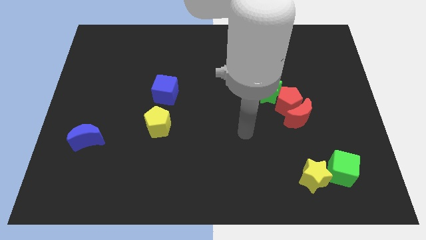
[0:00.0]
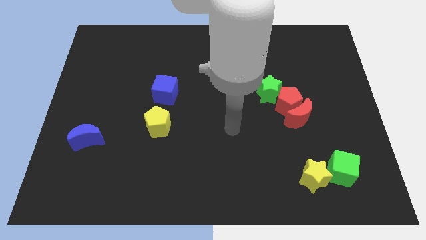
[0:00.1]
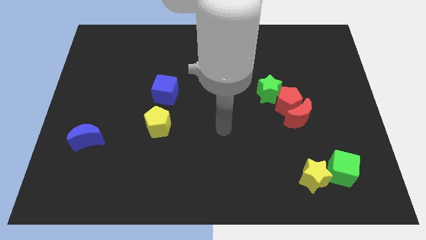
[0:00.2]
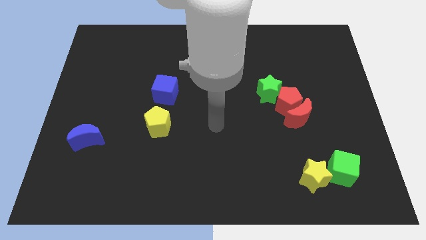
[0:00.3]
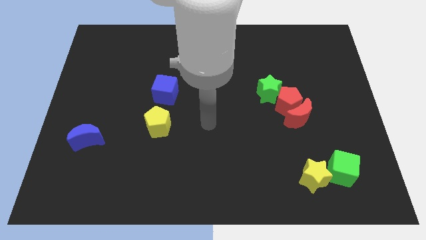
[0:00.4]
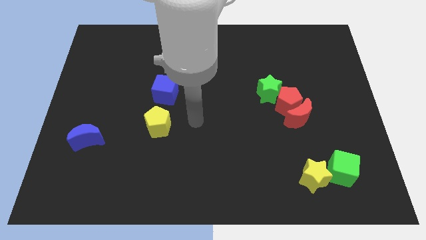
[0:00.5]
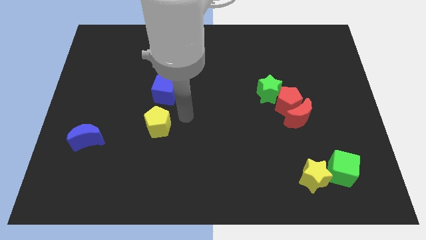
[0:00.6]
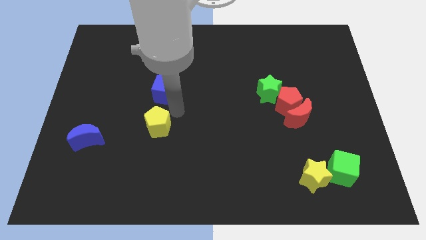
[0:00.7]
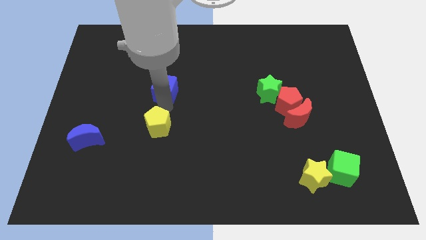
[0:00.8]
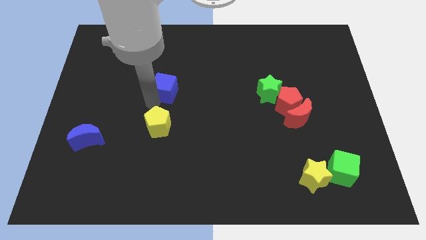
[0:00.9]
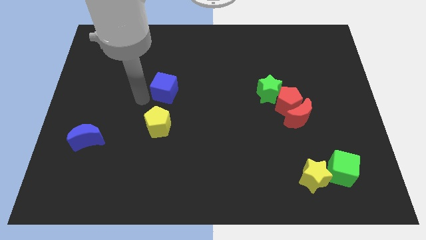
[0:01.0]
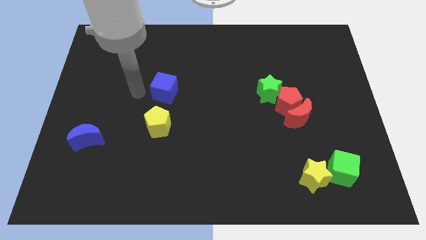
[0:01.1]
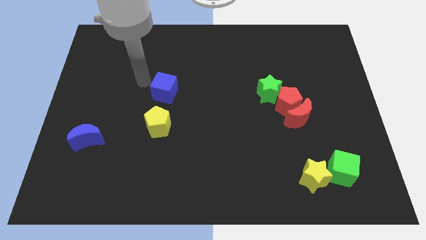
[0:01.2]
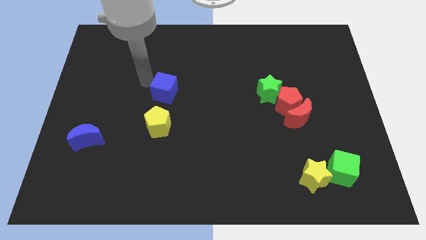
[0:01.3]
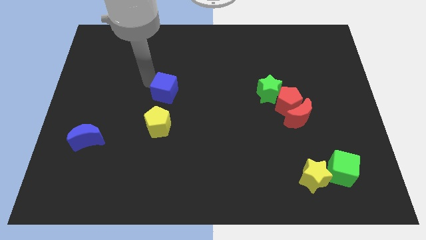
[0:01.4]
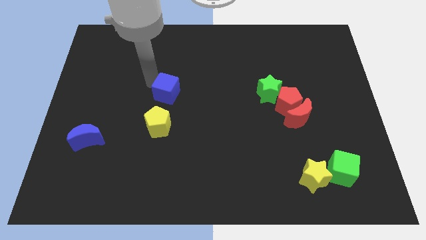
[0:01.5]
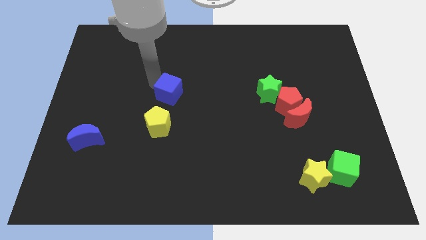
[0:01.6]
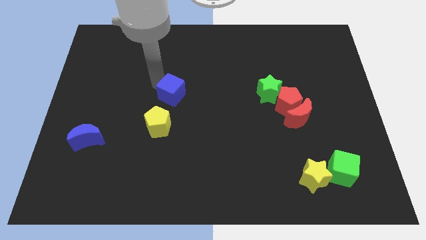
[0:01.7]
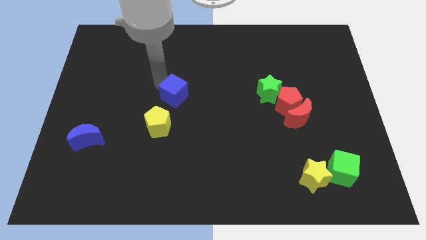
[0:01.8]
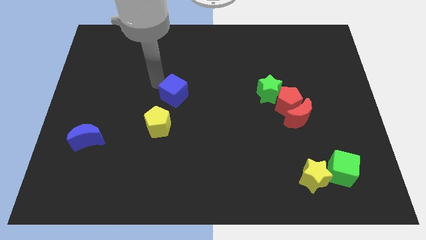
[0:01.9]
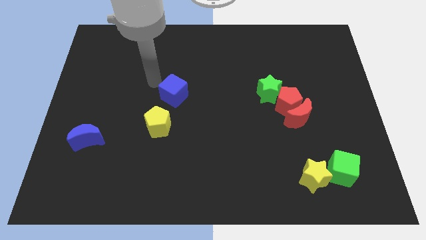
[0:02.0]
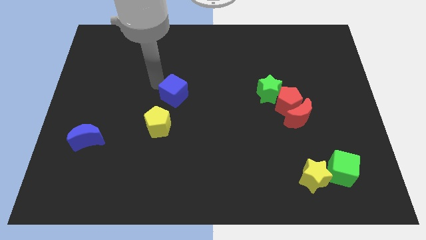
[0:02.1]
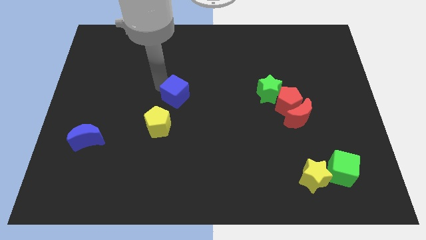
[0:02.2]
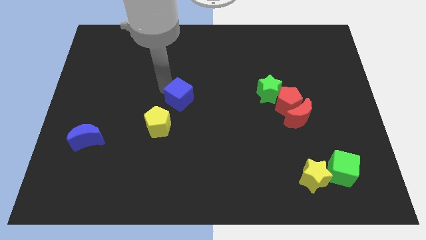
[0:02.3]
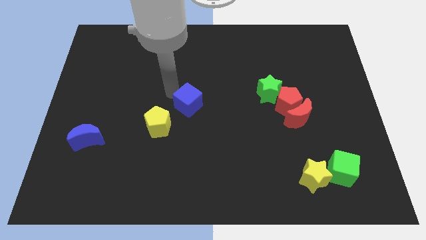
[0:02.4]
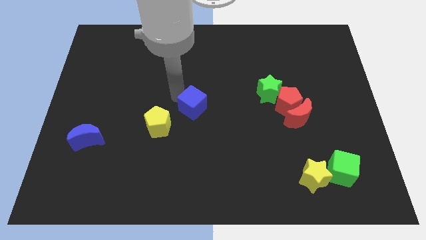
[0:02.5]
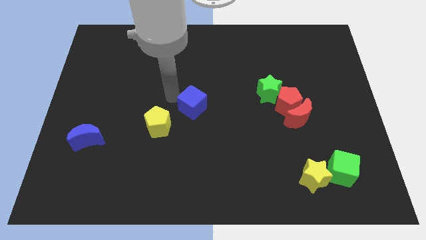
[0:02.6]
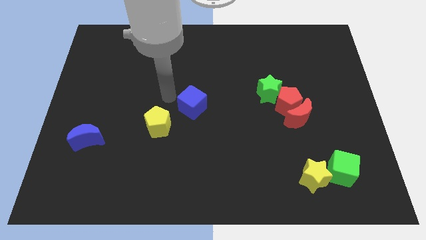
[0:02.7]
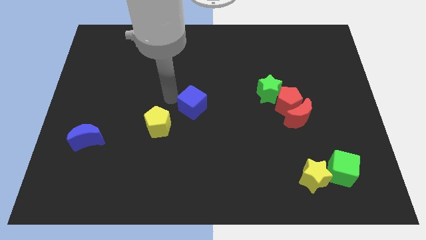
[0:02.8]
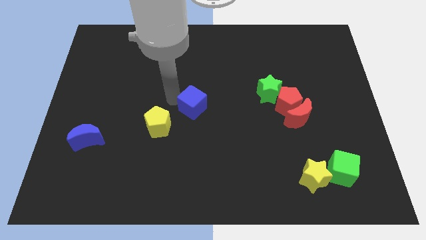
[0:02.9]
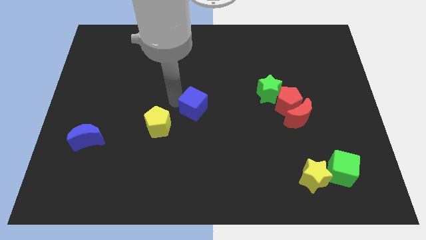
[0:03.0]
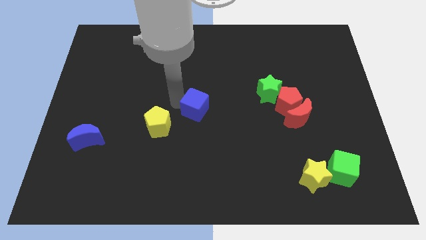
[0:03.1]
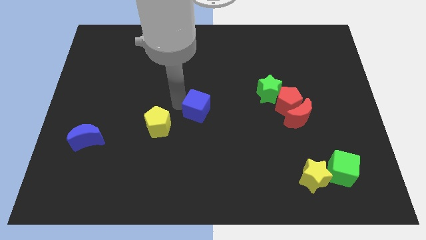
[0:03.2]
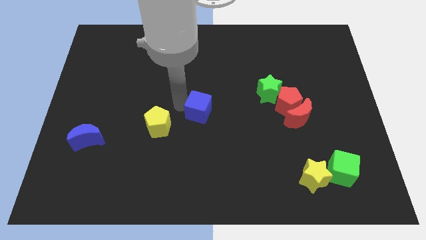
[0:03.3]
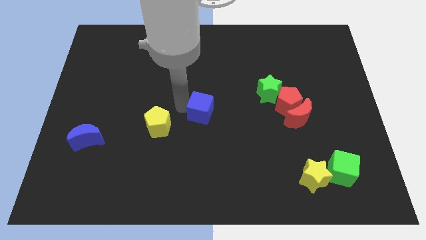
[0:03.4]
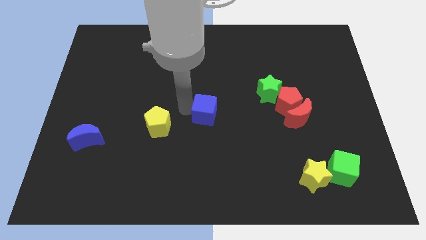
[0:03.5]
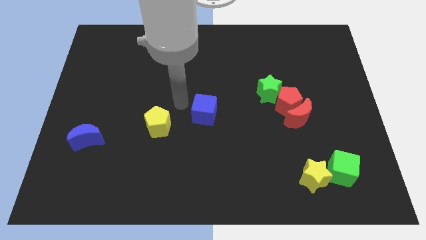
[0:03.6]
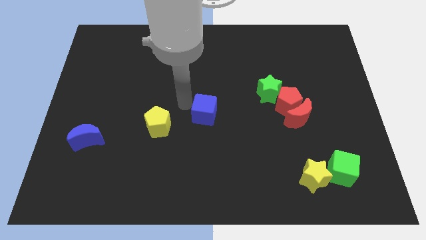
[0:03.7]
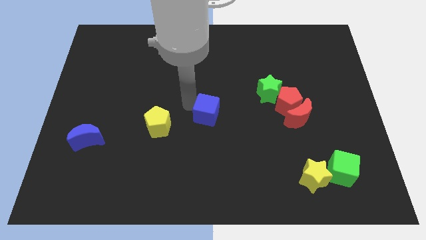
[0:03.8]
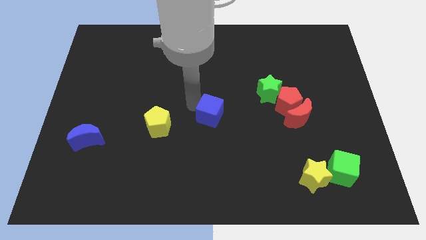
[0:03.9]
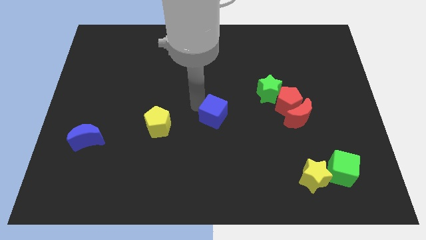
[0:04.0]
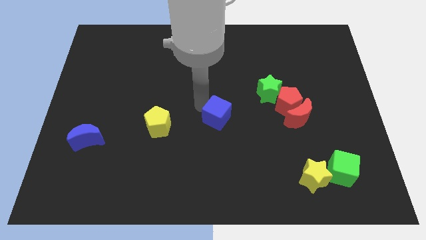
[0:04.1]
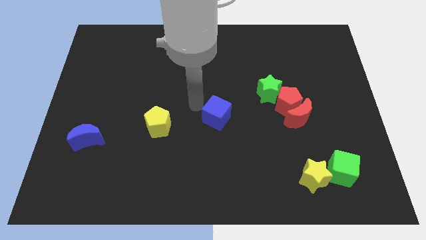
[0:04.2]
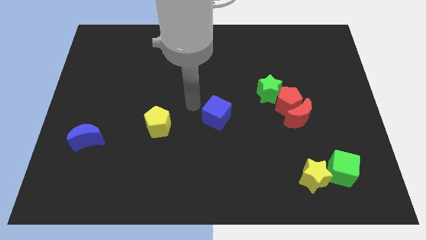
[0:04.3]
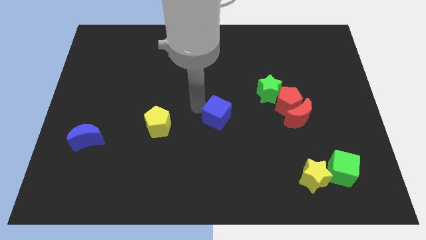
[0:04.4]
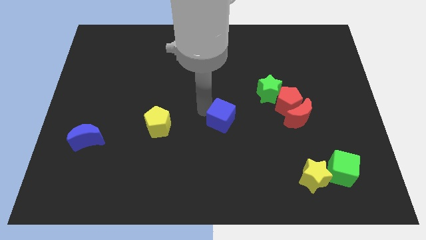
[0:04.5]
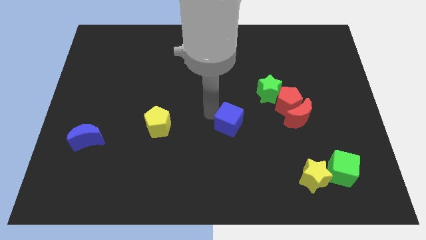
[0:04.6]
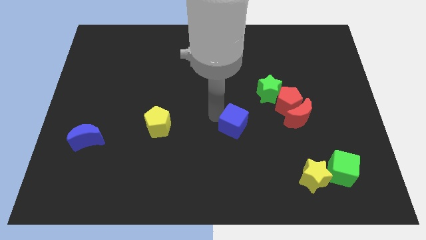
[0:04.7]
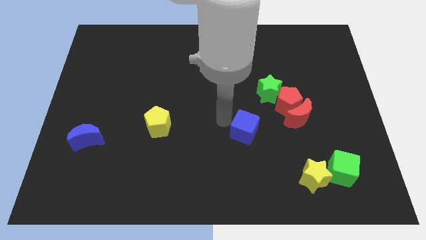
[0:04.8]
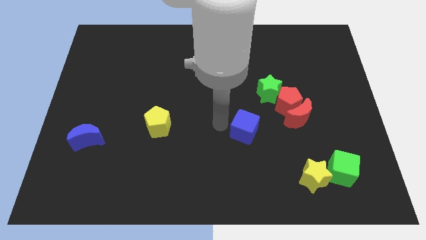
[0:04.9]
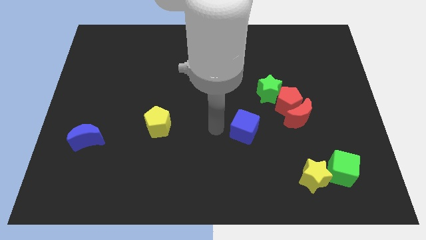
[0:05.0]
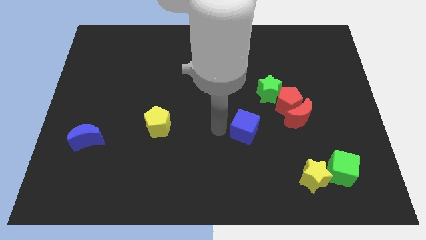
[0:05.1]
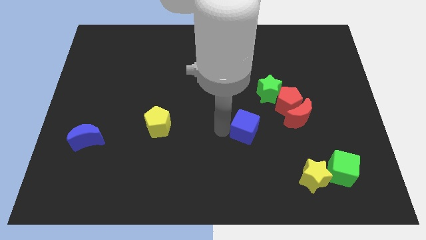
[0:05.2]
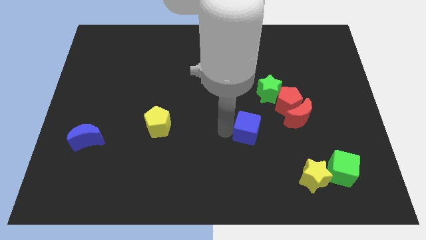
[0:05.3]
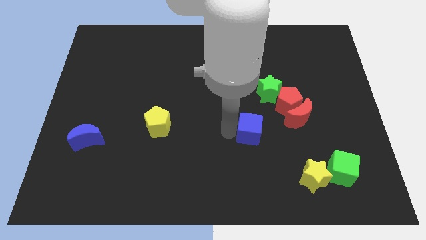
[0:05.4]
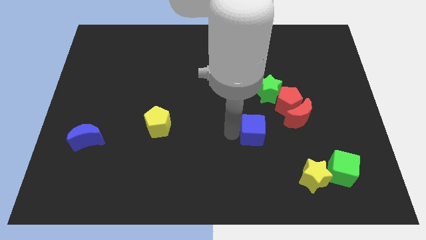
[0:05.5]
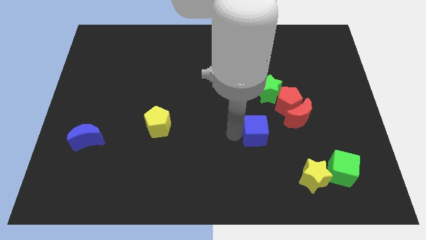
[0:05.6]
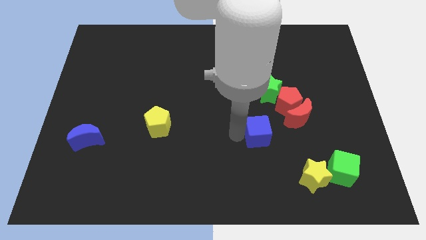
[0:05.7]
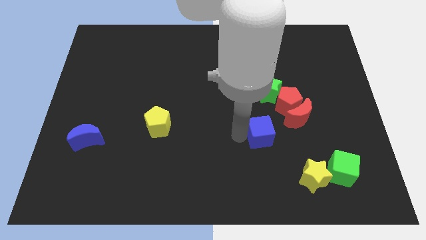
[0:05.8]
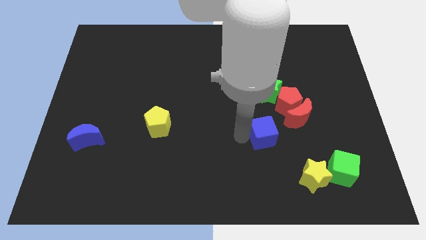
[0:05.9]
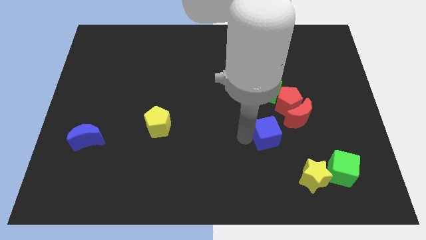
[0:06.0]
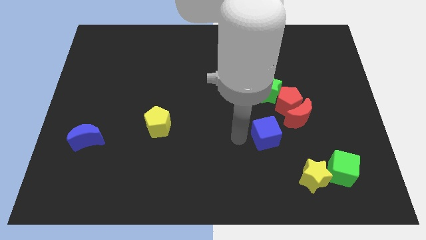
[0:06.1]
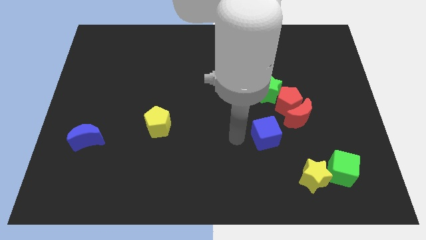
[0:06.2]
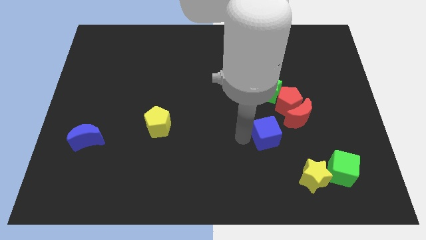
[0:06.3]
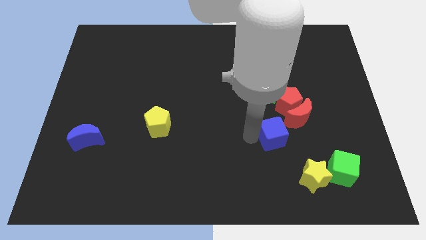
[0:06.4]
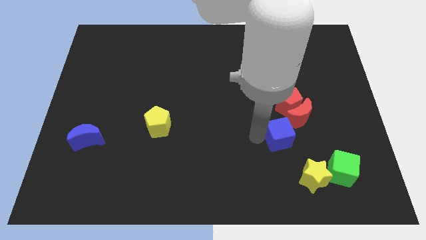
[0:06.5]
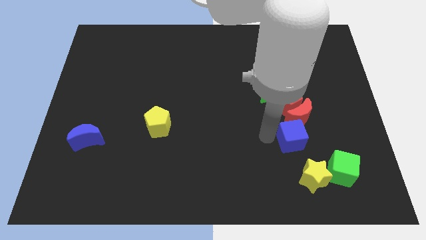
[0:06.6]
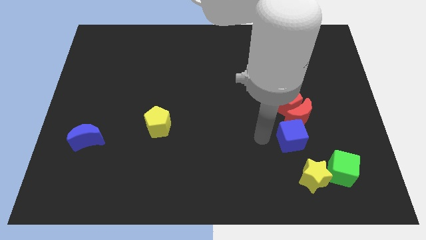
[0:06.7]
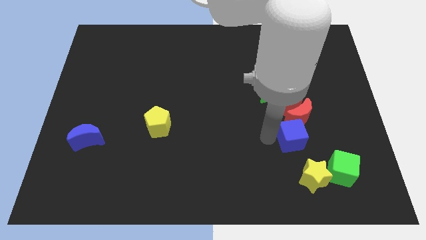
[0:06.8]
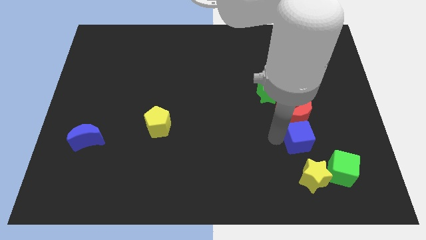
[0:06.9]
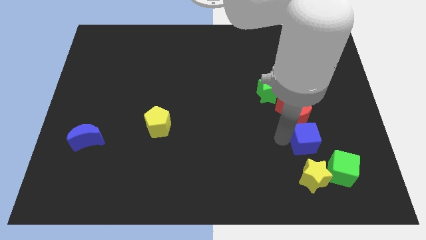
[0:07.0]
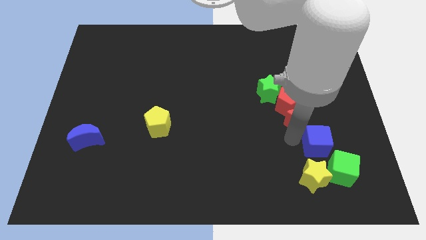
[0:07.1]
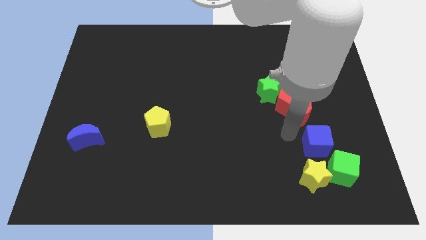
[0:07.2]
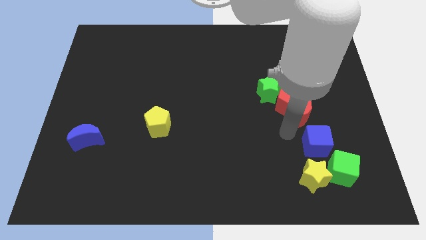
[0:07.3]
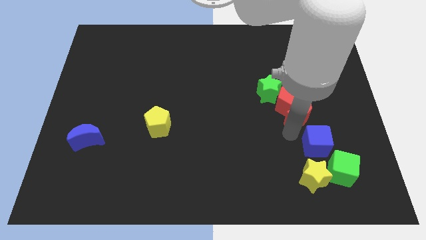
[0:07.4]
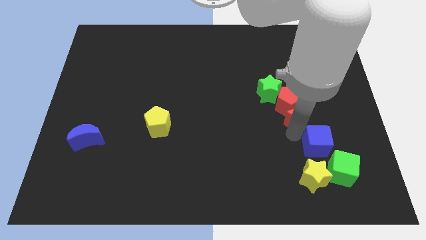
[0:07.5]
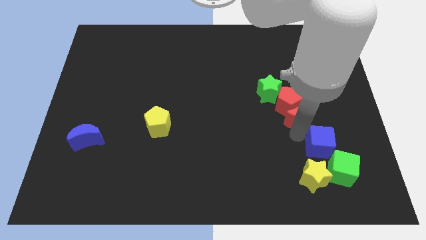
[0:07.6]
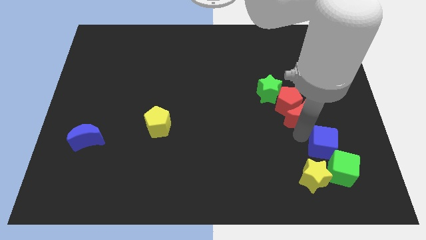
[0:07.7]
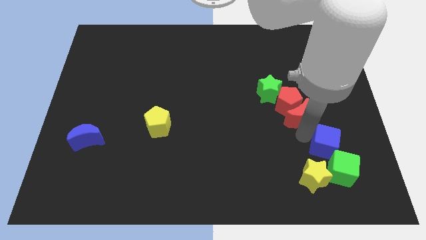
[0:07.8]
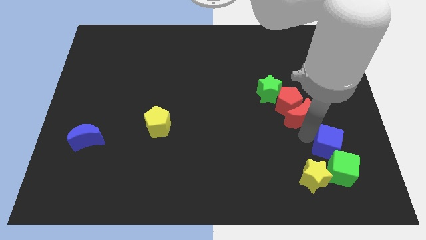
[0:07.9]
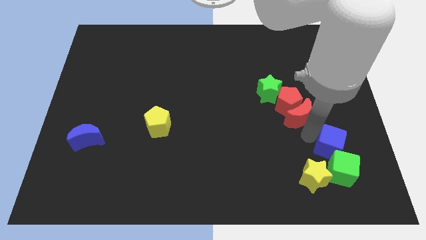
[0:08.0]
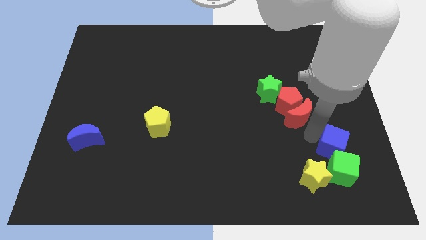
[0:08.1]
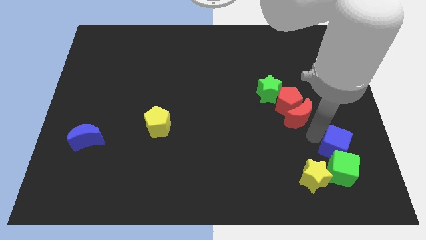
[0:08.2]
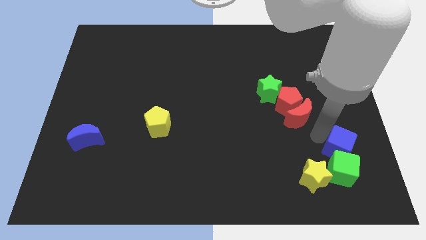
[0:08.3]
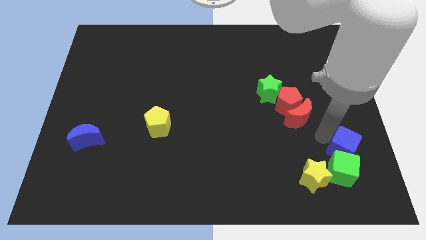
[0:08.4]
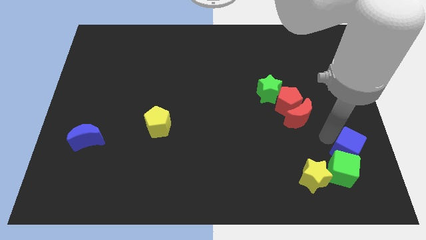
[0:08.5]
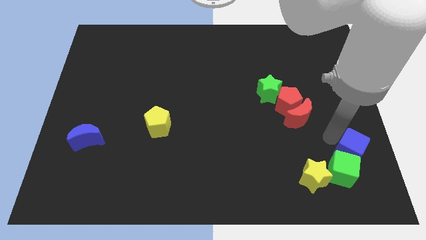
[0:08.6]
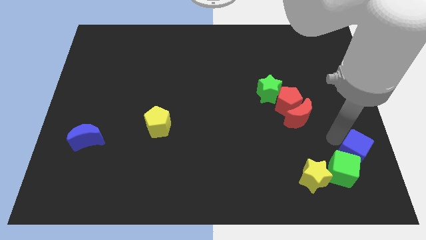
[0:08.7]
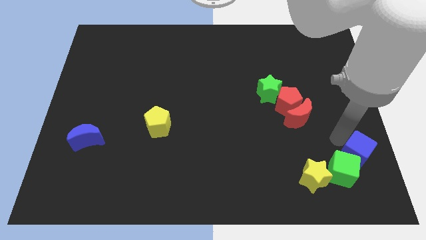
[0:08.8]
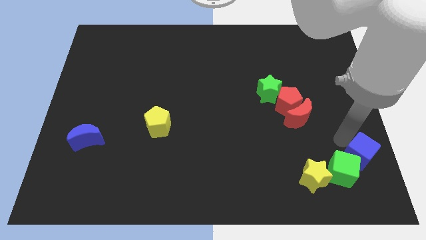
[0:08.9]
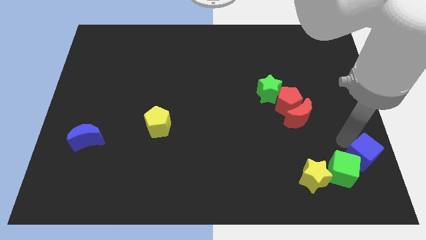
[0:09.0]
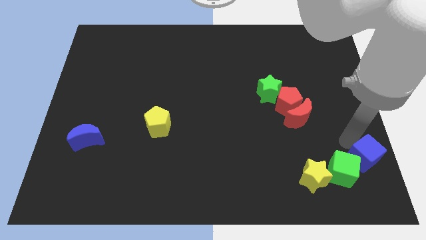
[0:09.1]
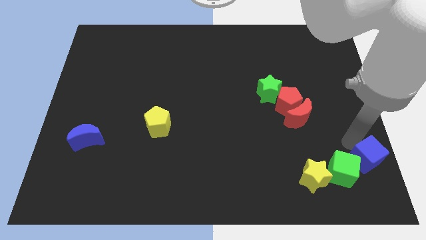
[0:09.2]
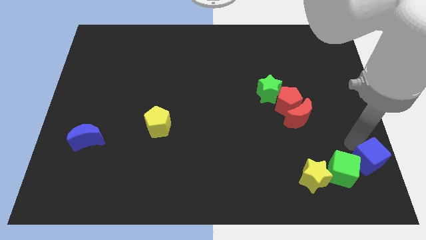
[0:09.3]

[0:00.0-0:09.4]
put the blue cube to the bottom right corner
